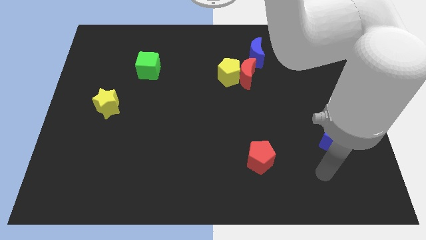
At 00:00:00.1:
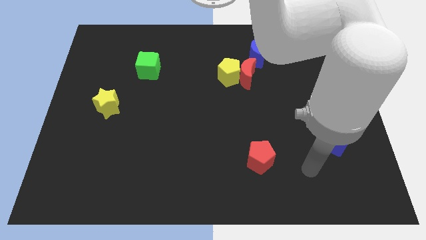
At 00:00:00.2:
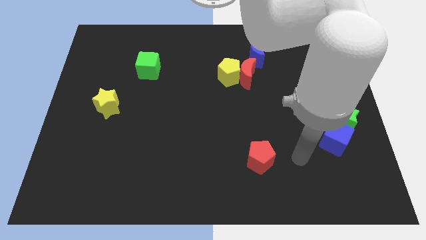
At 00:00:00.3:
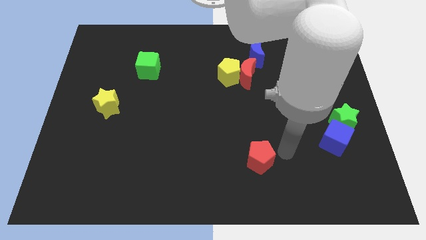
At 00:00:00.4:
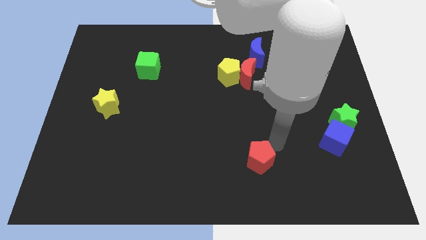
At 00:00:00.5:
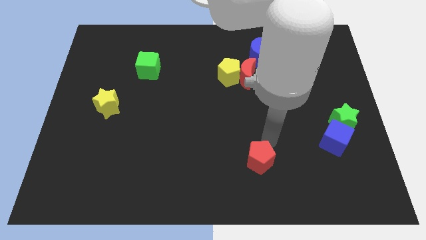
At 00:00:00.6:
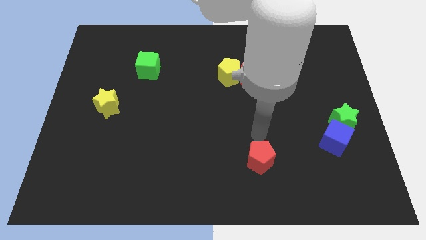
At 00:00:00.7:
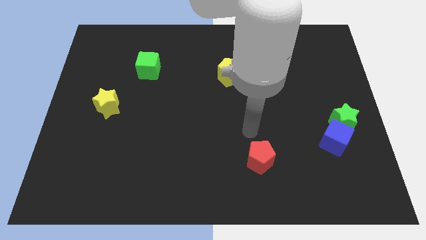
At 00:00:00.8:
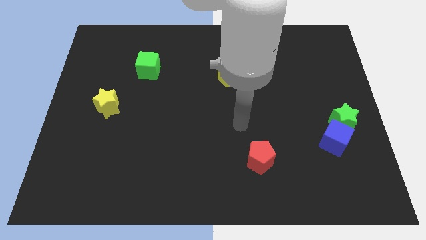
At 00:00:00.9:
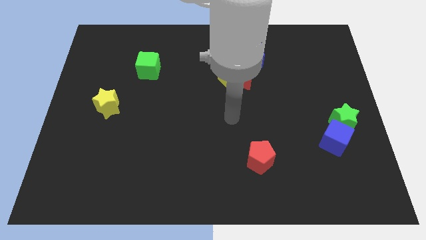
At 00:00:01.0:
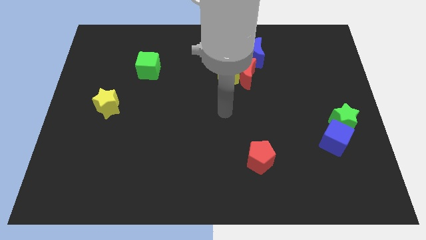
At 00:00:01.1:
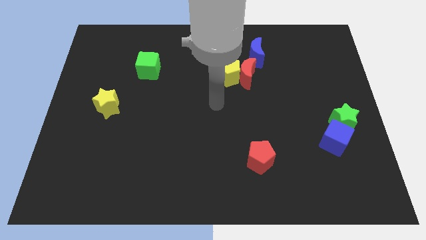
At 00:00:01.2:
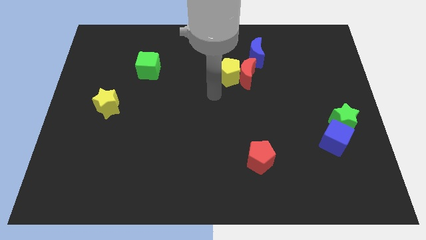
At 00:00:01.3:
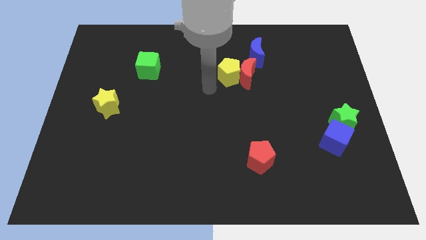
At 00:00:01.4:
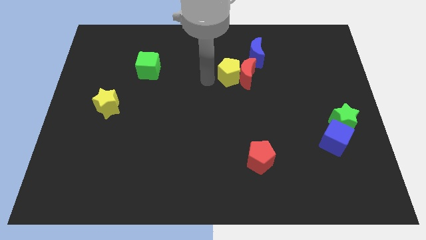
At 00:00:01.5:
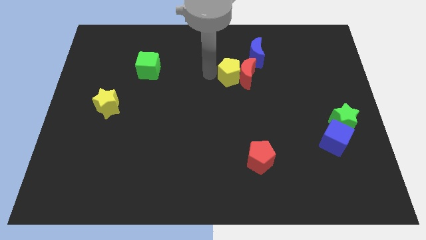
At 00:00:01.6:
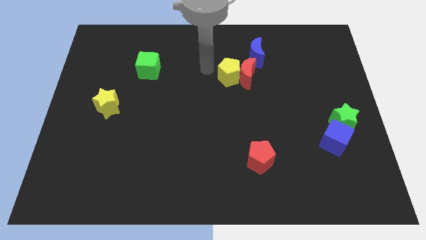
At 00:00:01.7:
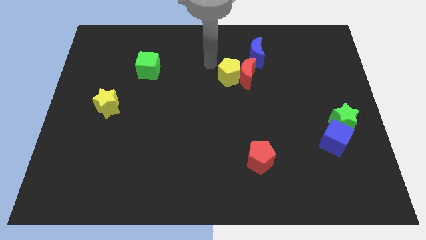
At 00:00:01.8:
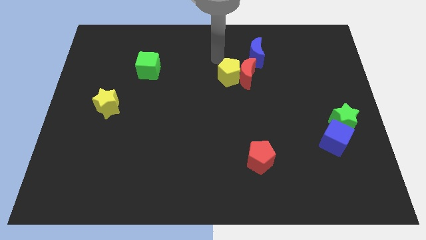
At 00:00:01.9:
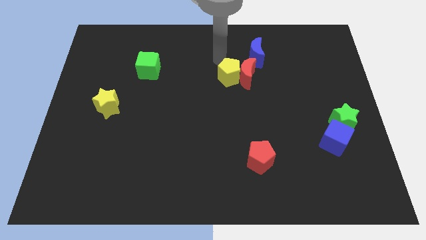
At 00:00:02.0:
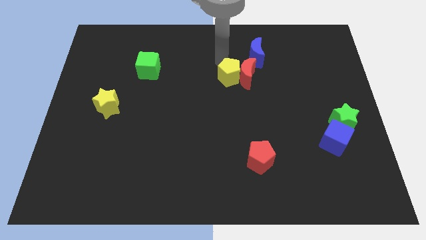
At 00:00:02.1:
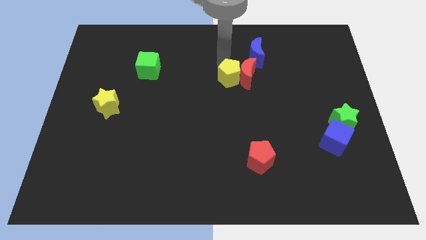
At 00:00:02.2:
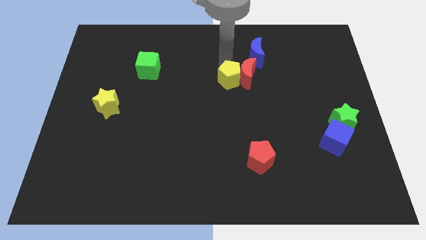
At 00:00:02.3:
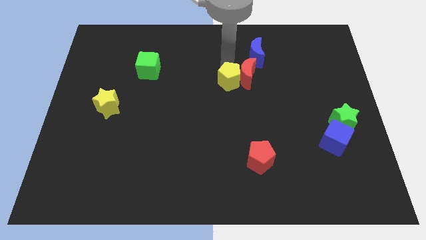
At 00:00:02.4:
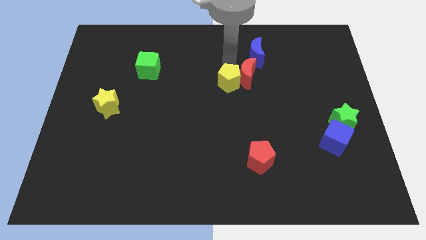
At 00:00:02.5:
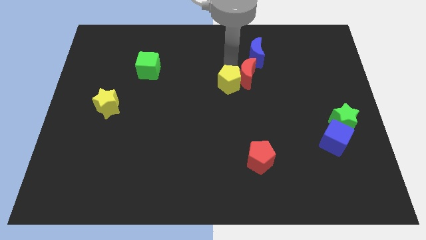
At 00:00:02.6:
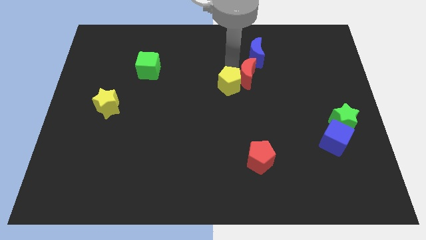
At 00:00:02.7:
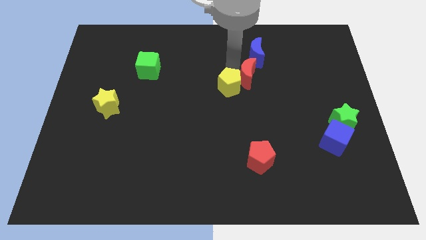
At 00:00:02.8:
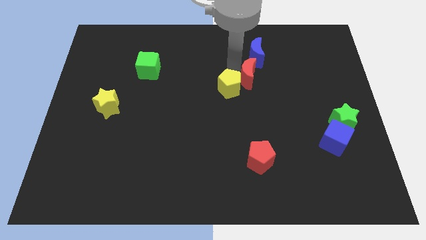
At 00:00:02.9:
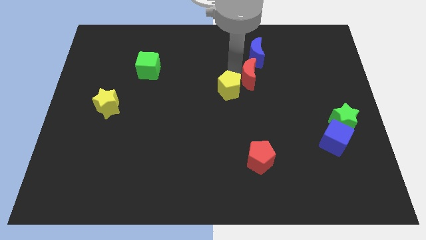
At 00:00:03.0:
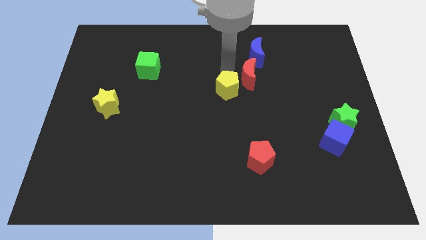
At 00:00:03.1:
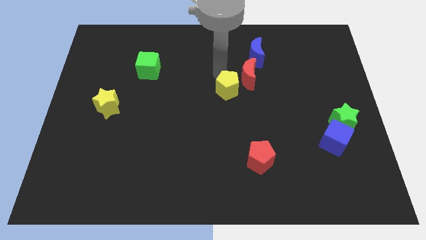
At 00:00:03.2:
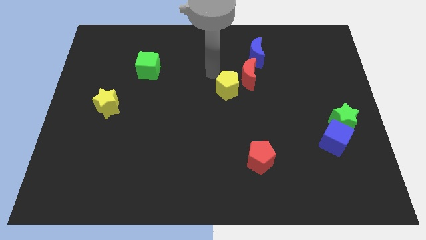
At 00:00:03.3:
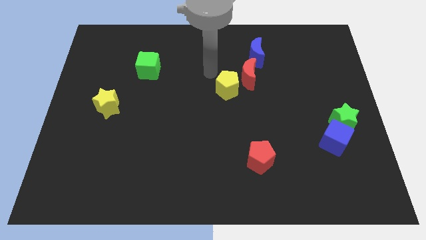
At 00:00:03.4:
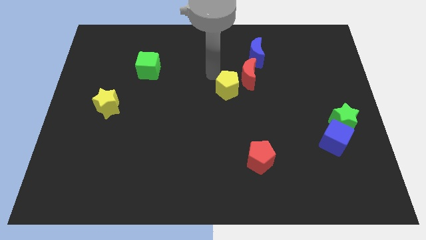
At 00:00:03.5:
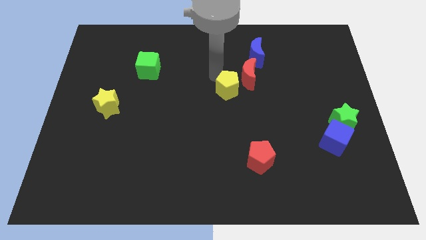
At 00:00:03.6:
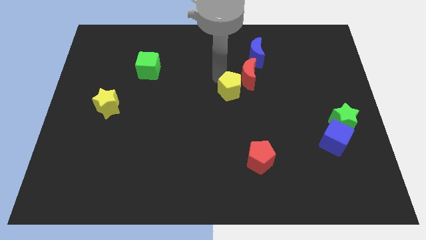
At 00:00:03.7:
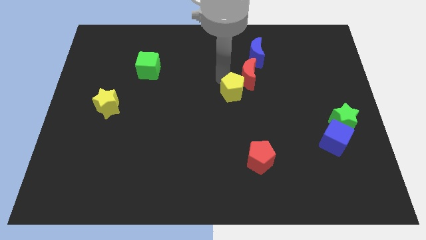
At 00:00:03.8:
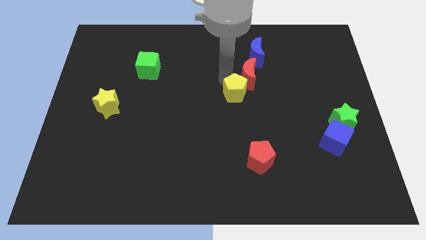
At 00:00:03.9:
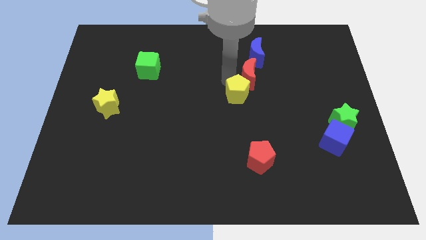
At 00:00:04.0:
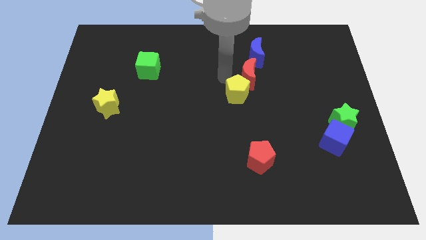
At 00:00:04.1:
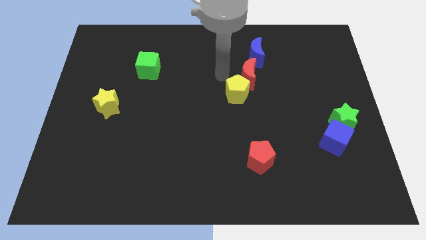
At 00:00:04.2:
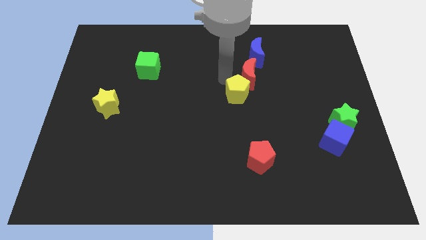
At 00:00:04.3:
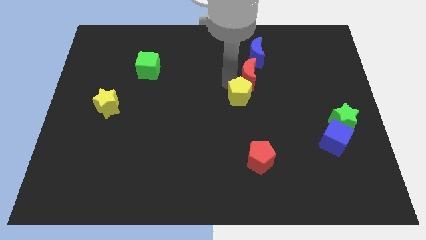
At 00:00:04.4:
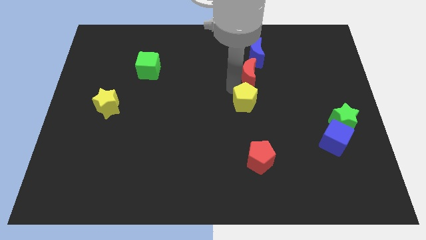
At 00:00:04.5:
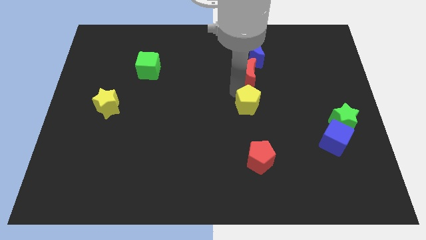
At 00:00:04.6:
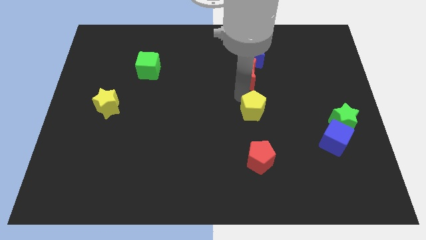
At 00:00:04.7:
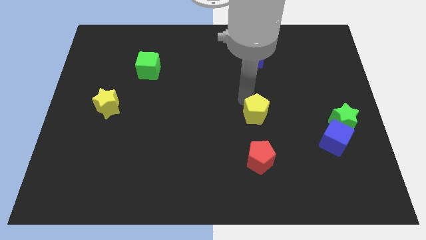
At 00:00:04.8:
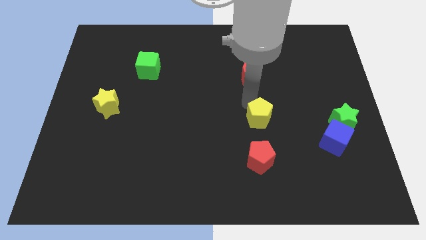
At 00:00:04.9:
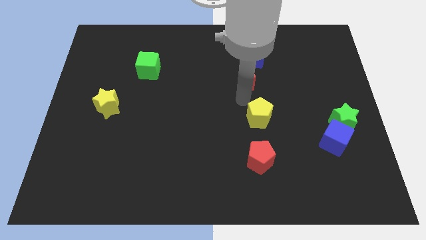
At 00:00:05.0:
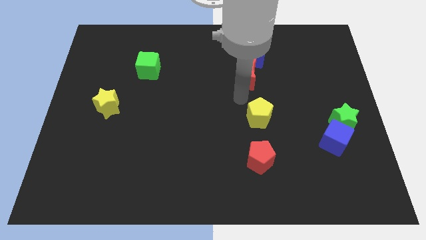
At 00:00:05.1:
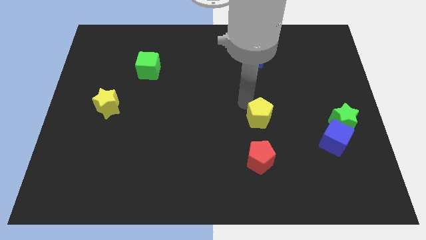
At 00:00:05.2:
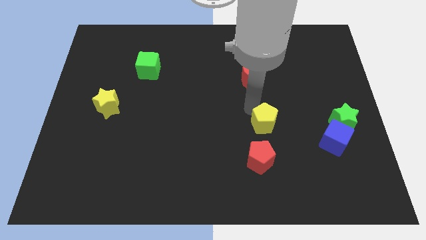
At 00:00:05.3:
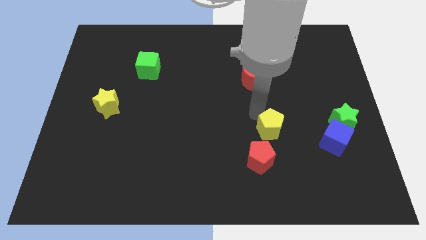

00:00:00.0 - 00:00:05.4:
put the yellow pentagon to the top right of the red pentagon

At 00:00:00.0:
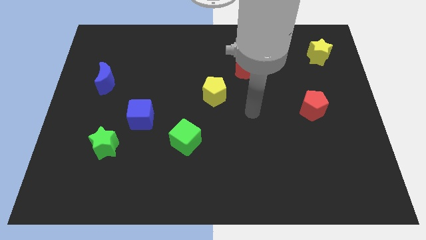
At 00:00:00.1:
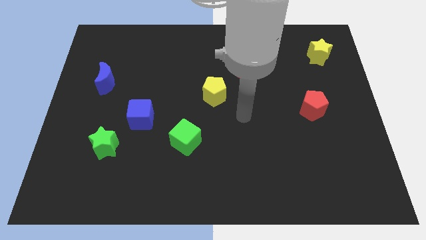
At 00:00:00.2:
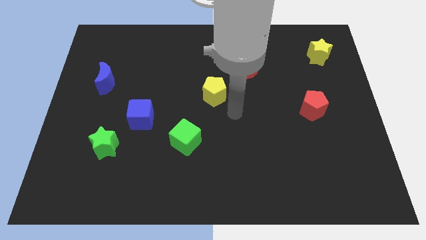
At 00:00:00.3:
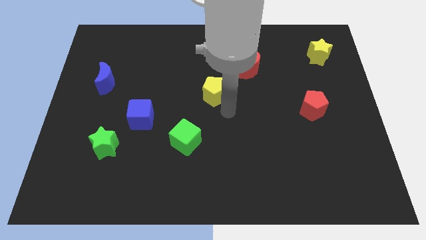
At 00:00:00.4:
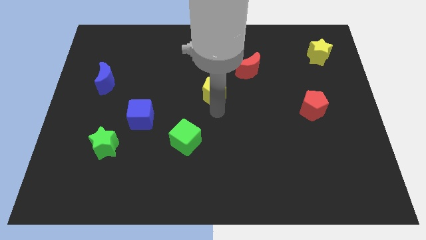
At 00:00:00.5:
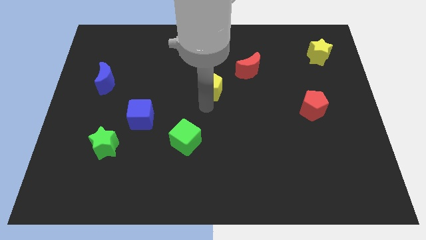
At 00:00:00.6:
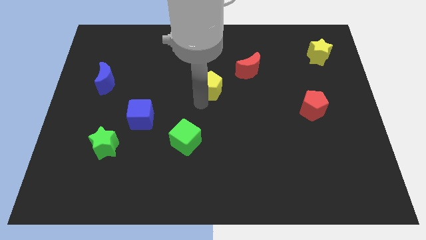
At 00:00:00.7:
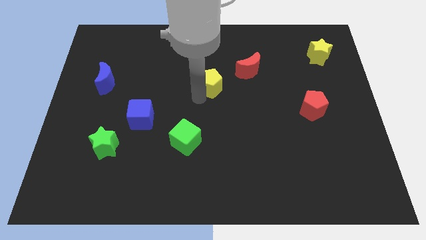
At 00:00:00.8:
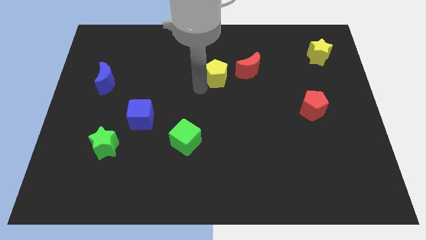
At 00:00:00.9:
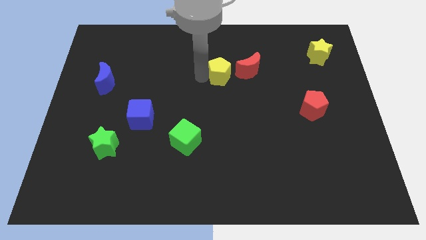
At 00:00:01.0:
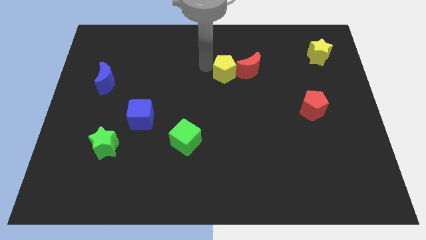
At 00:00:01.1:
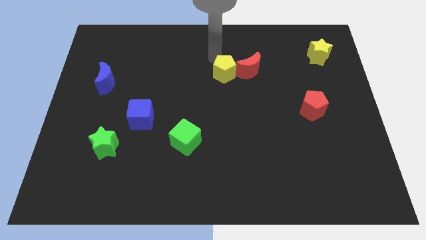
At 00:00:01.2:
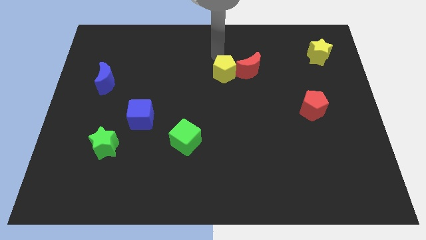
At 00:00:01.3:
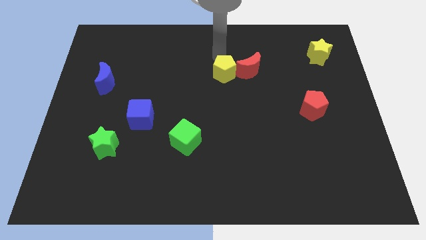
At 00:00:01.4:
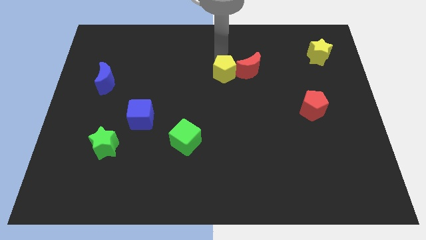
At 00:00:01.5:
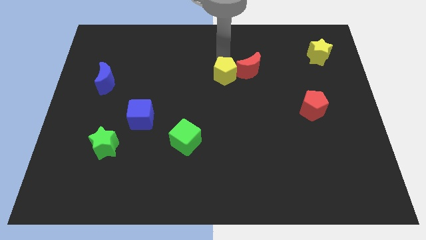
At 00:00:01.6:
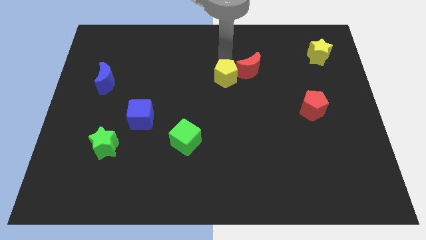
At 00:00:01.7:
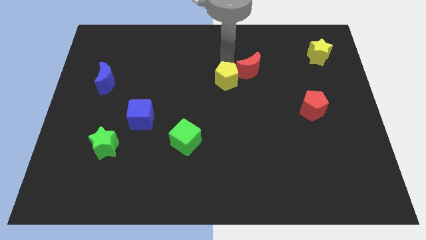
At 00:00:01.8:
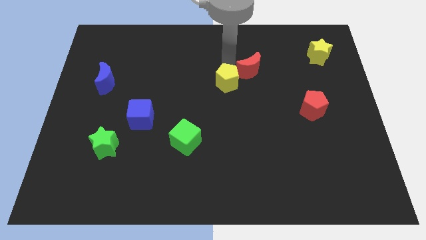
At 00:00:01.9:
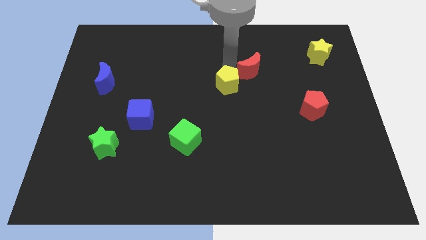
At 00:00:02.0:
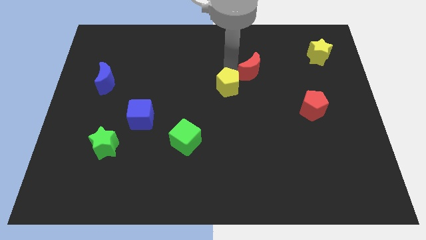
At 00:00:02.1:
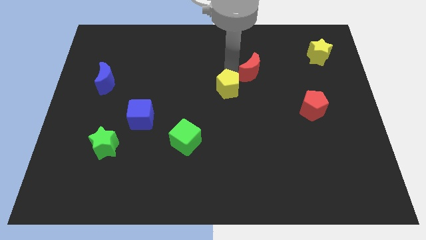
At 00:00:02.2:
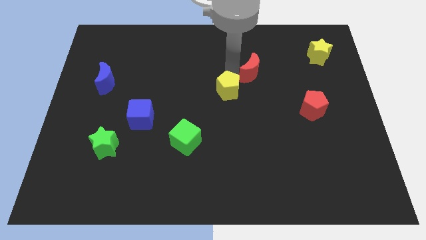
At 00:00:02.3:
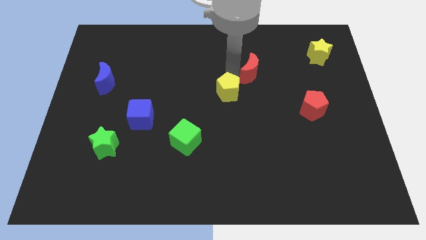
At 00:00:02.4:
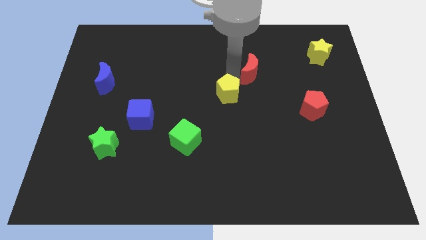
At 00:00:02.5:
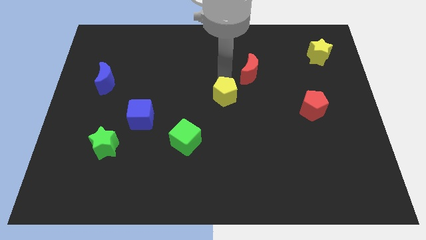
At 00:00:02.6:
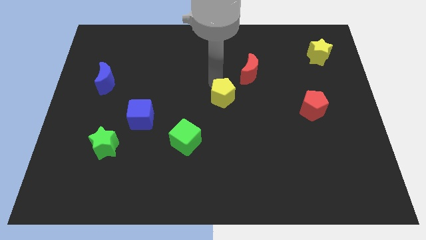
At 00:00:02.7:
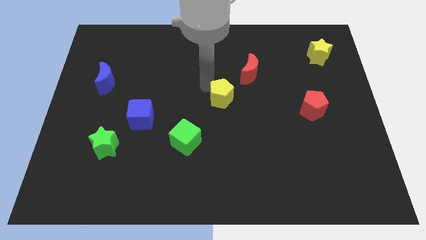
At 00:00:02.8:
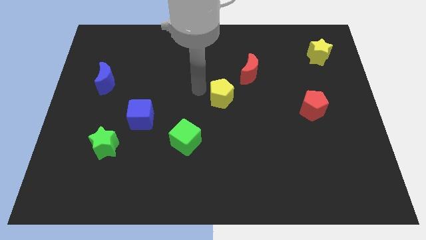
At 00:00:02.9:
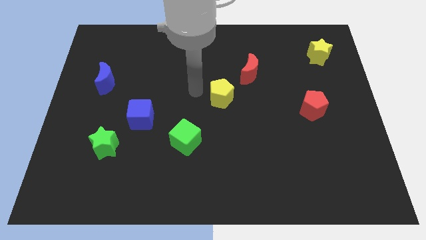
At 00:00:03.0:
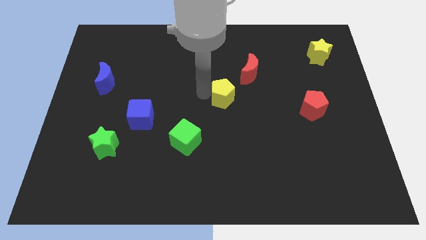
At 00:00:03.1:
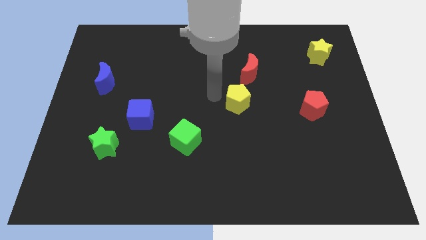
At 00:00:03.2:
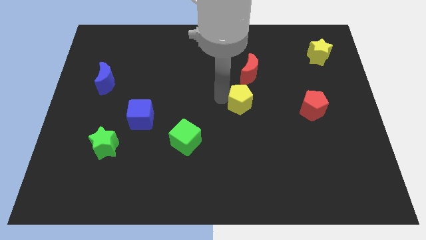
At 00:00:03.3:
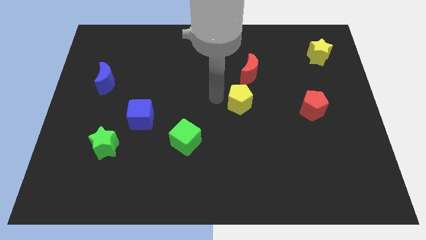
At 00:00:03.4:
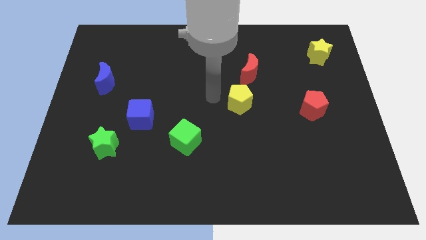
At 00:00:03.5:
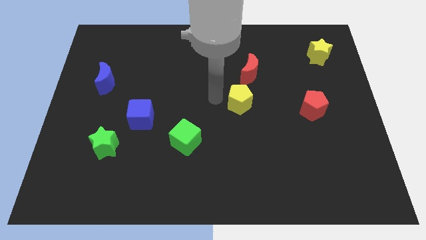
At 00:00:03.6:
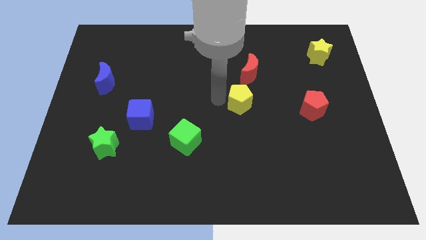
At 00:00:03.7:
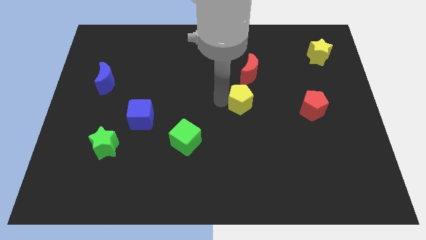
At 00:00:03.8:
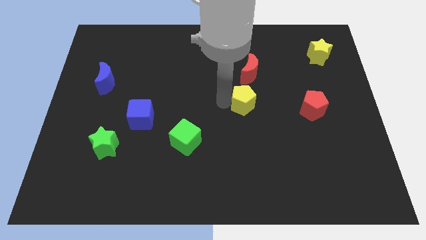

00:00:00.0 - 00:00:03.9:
move the yellow pentagon left of the red pentagon
